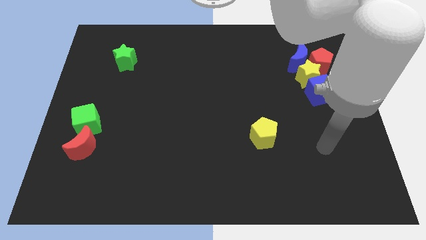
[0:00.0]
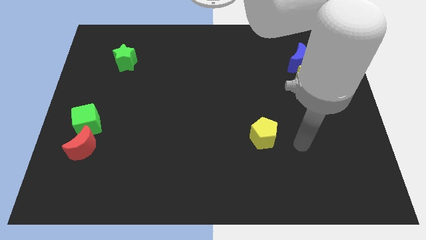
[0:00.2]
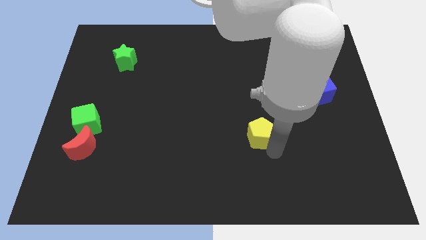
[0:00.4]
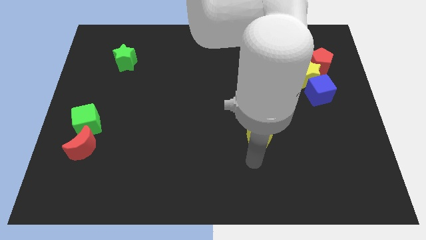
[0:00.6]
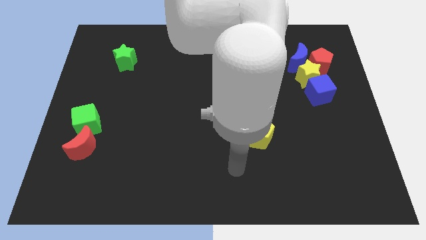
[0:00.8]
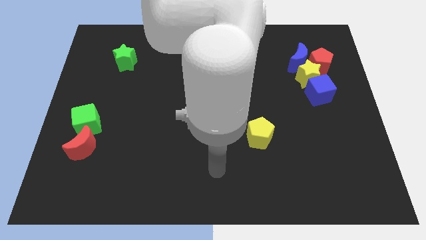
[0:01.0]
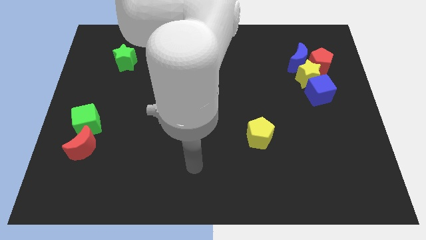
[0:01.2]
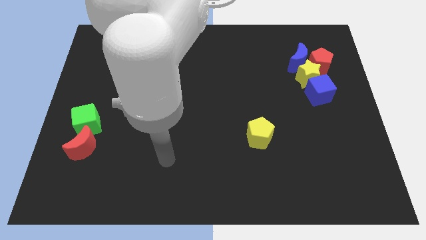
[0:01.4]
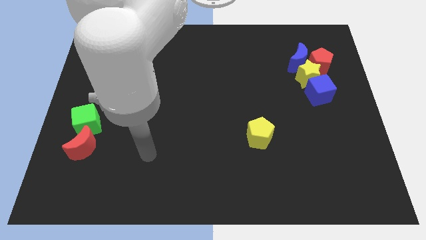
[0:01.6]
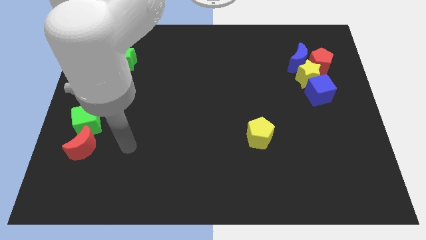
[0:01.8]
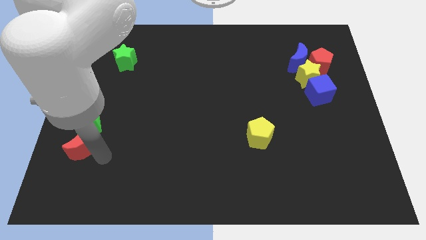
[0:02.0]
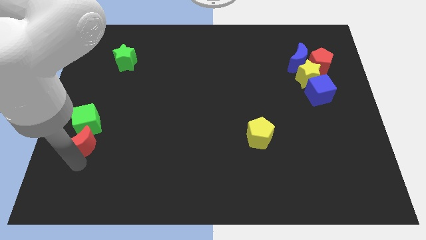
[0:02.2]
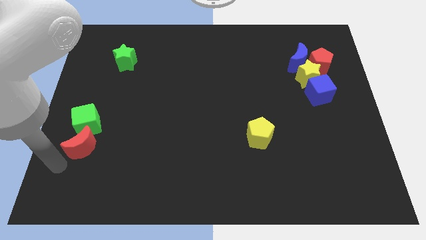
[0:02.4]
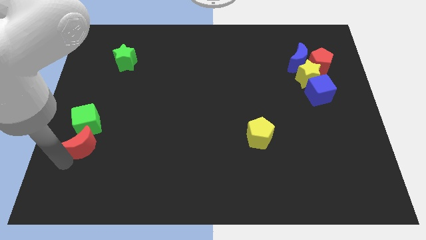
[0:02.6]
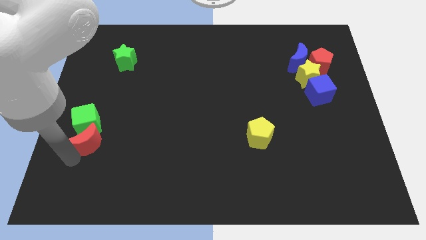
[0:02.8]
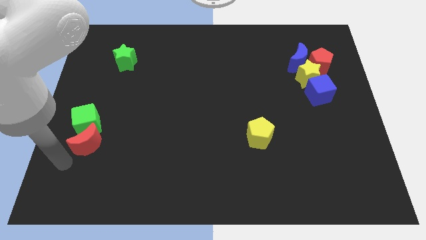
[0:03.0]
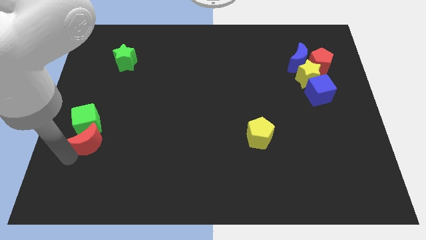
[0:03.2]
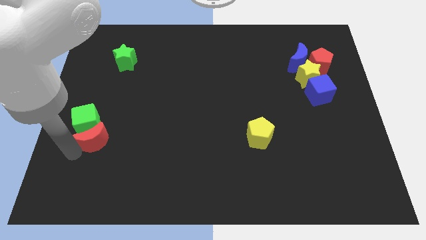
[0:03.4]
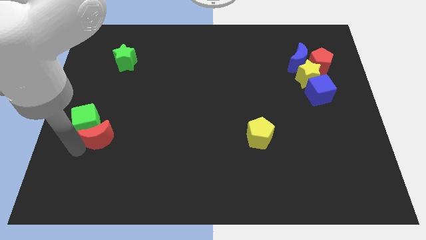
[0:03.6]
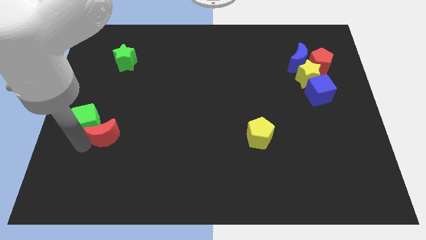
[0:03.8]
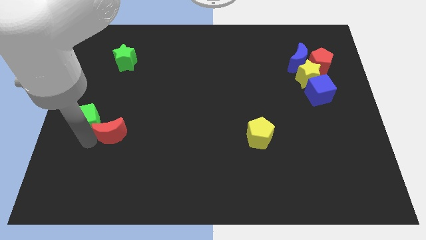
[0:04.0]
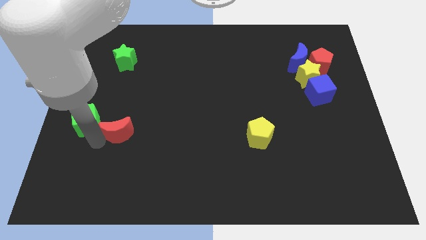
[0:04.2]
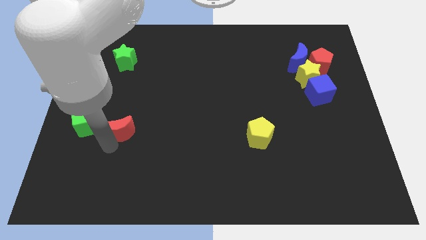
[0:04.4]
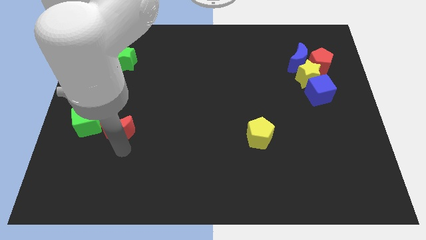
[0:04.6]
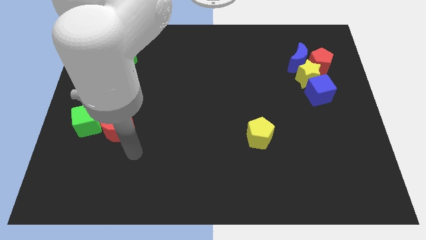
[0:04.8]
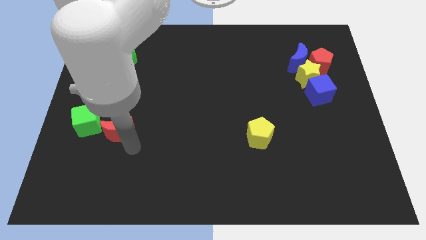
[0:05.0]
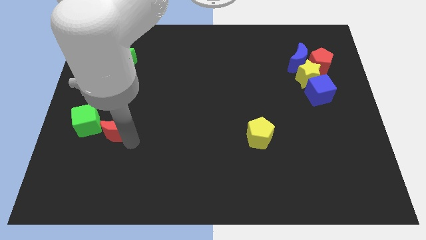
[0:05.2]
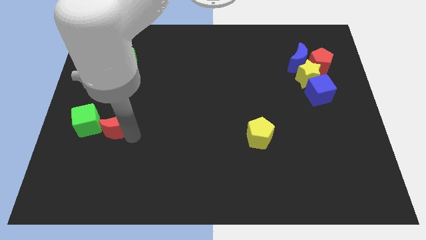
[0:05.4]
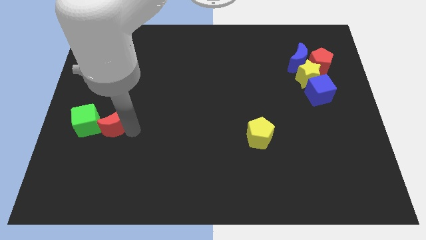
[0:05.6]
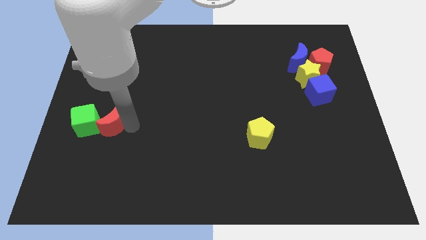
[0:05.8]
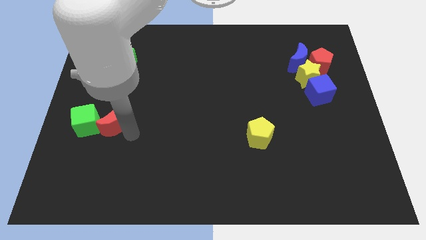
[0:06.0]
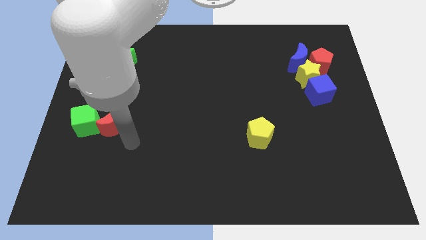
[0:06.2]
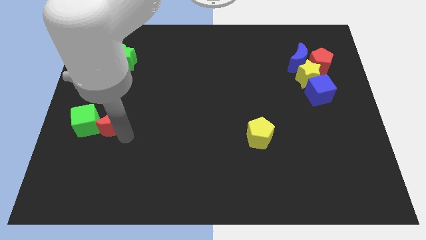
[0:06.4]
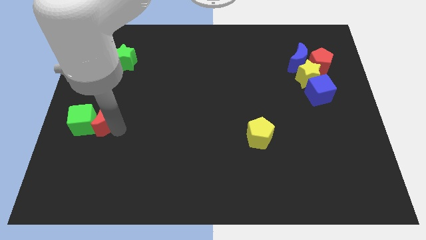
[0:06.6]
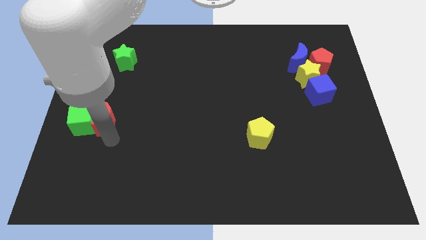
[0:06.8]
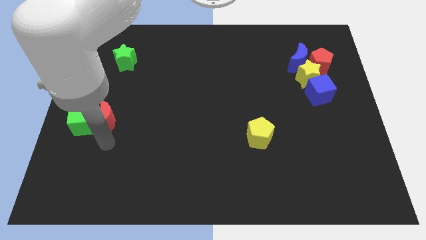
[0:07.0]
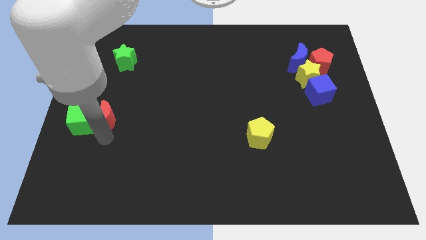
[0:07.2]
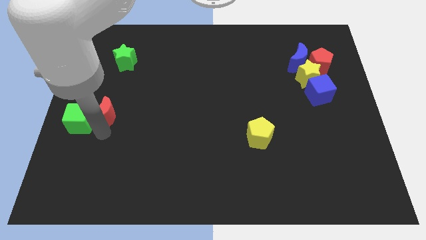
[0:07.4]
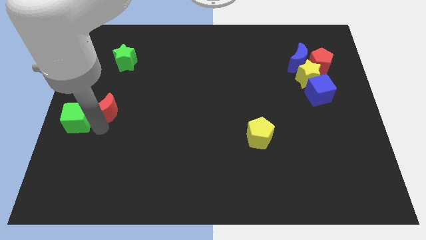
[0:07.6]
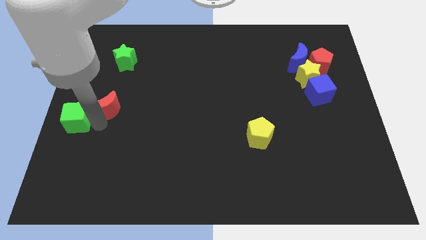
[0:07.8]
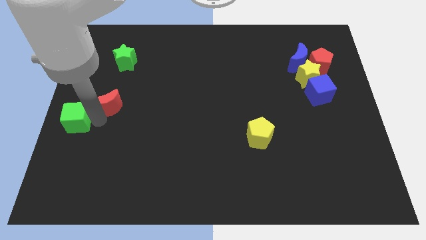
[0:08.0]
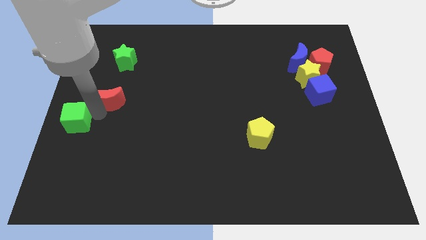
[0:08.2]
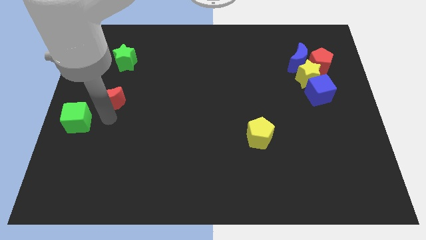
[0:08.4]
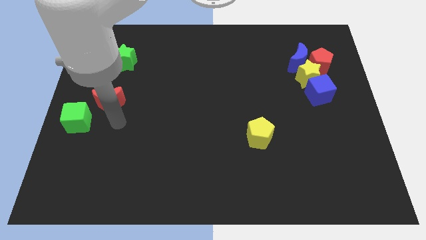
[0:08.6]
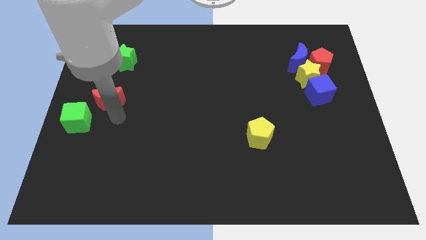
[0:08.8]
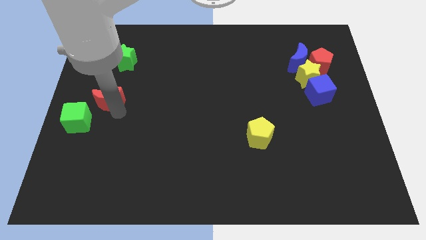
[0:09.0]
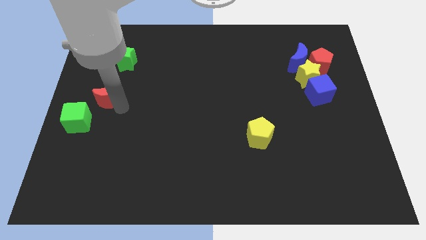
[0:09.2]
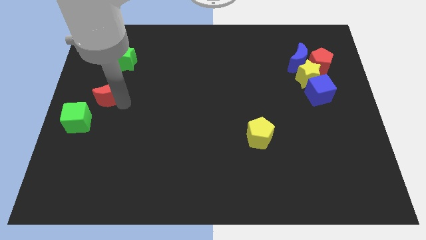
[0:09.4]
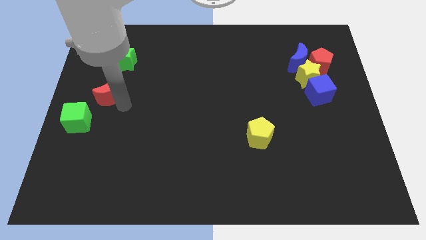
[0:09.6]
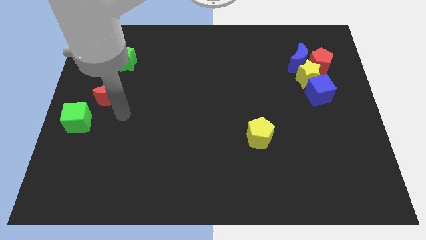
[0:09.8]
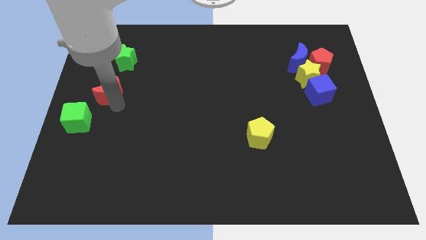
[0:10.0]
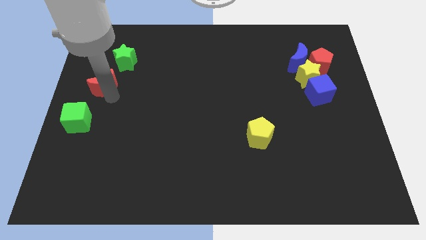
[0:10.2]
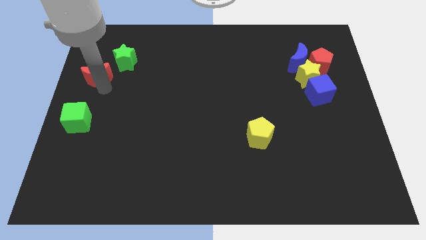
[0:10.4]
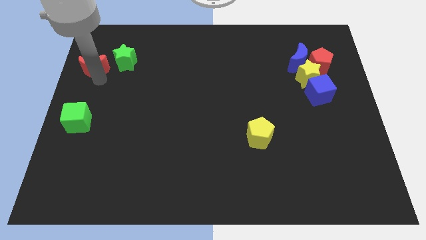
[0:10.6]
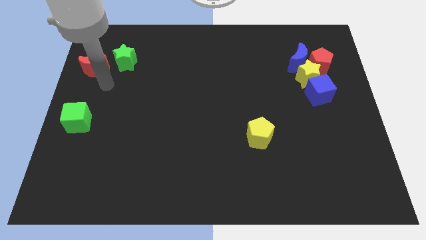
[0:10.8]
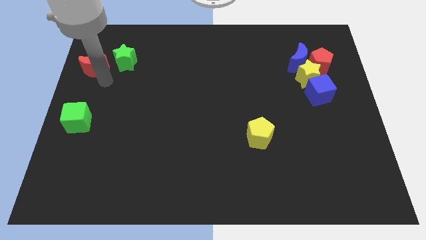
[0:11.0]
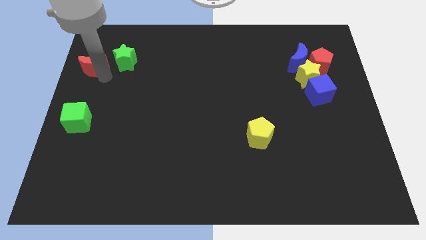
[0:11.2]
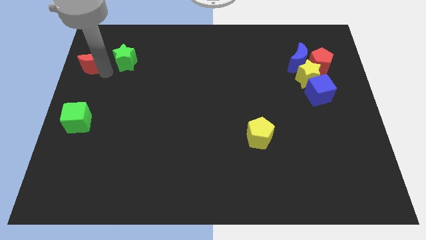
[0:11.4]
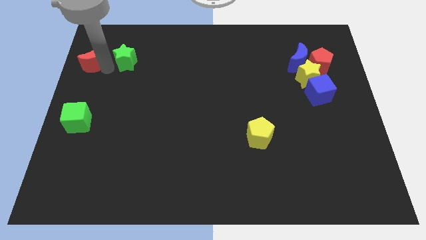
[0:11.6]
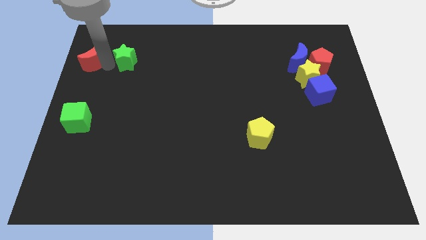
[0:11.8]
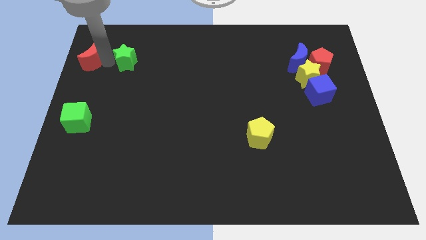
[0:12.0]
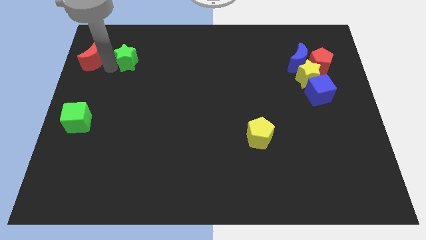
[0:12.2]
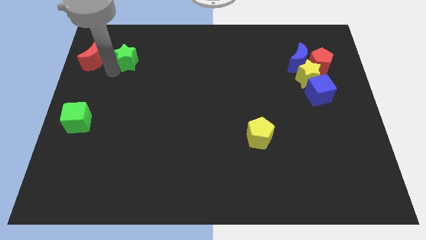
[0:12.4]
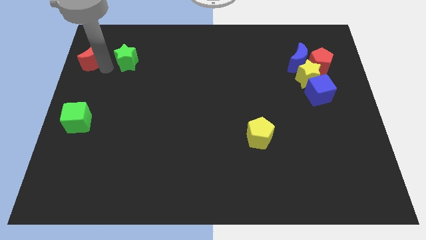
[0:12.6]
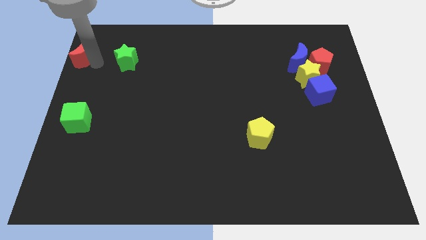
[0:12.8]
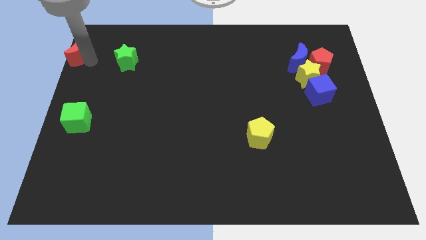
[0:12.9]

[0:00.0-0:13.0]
push the red moon to the top left

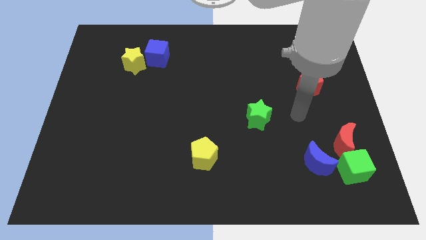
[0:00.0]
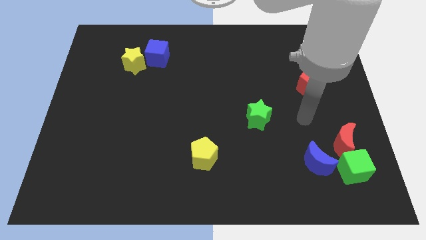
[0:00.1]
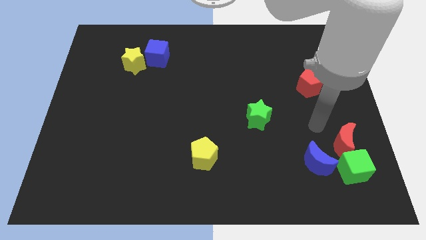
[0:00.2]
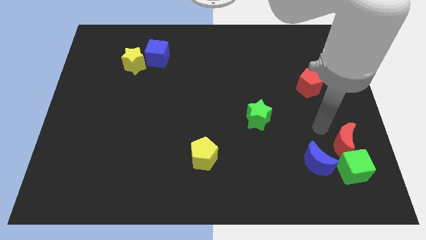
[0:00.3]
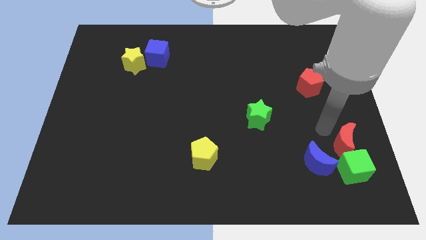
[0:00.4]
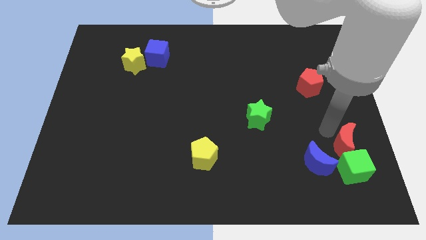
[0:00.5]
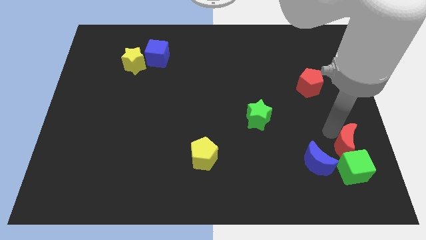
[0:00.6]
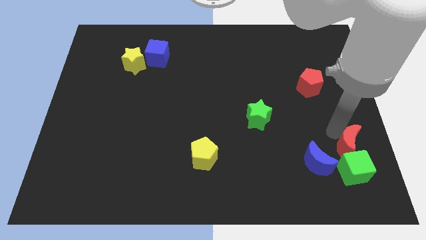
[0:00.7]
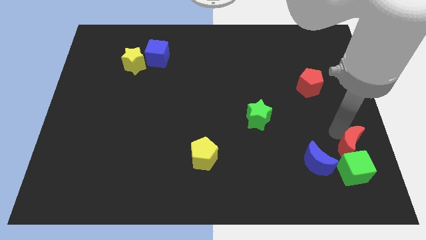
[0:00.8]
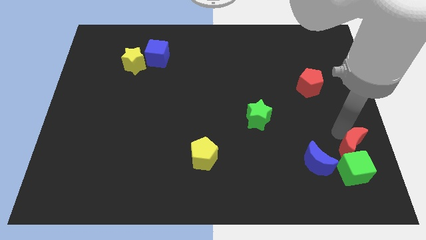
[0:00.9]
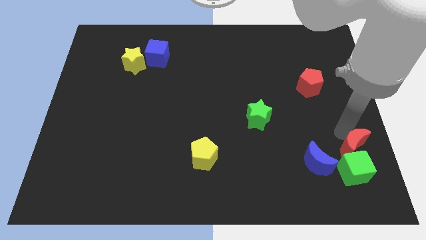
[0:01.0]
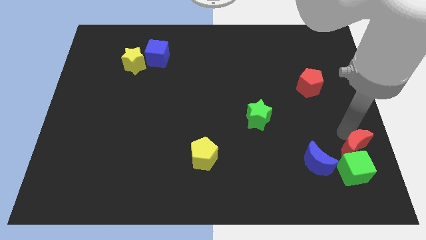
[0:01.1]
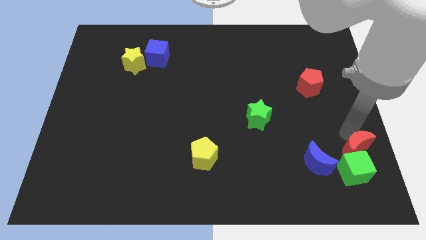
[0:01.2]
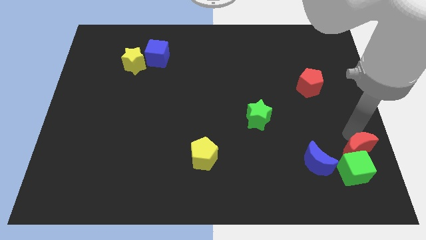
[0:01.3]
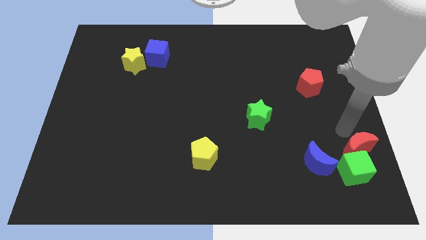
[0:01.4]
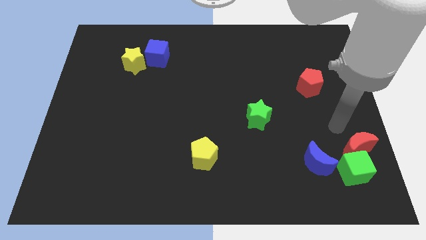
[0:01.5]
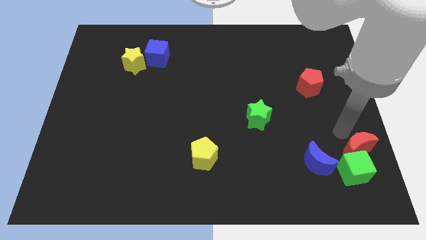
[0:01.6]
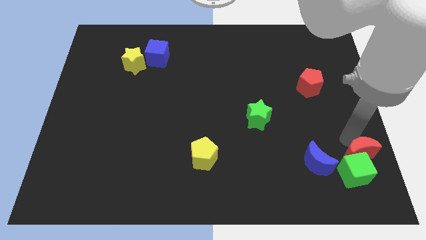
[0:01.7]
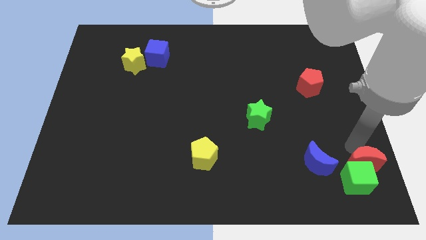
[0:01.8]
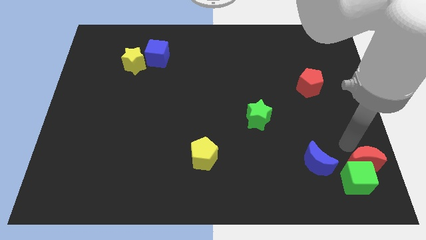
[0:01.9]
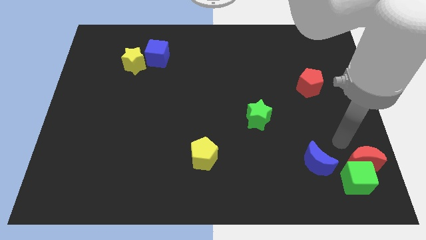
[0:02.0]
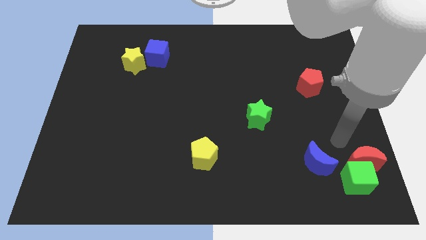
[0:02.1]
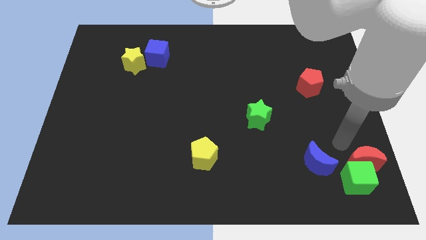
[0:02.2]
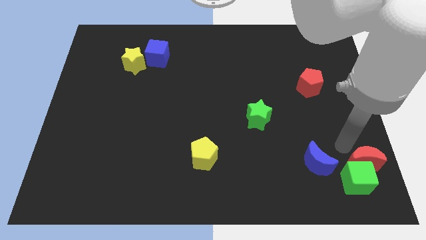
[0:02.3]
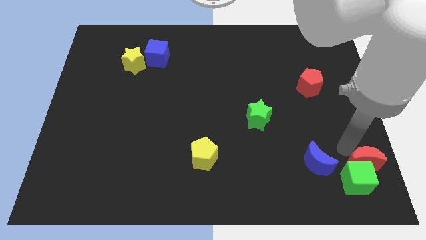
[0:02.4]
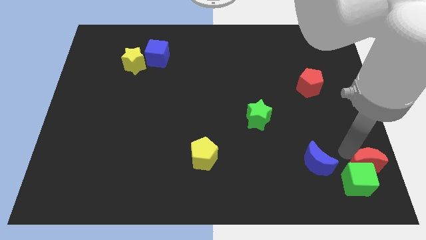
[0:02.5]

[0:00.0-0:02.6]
slide the red moon to the bottom right
